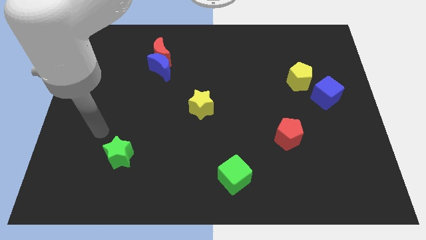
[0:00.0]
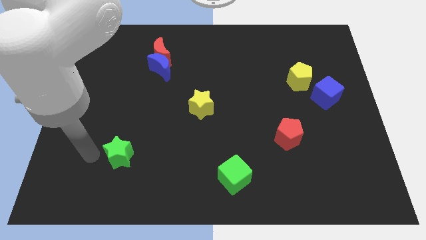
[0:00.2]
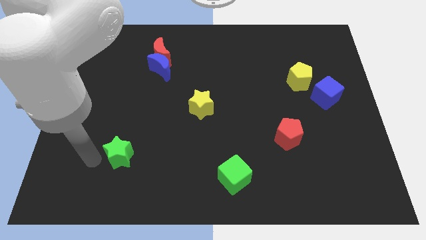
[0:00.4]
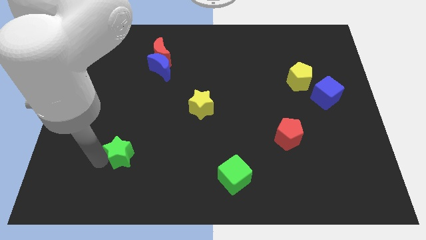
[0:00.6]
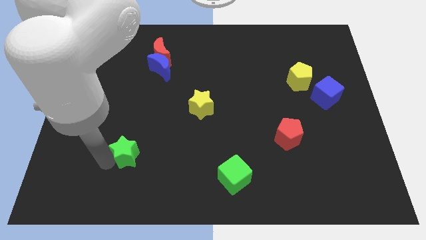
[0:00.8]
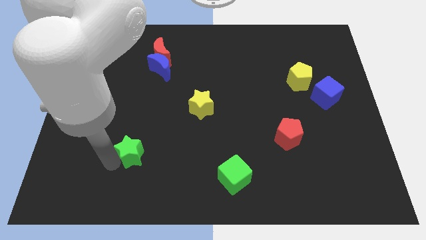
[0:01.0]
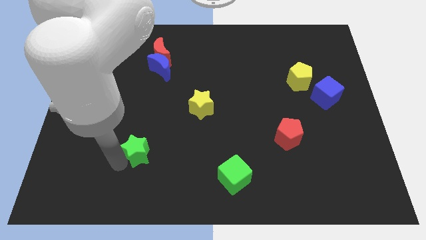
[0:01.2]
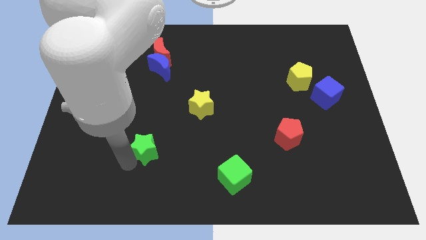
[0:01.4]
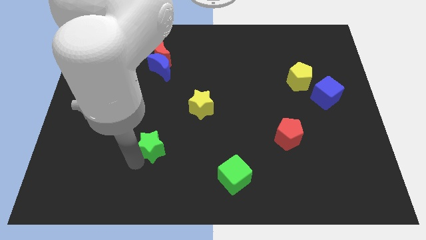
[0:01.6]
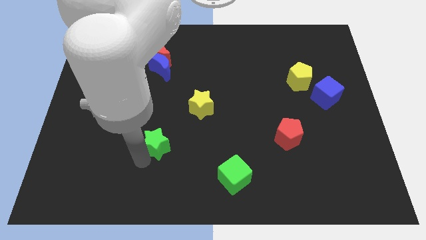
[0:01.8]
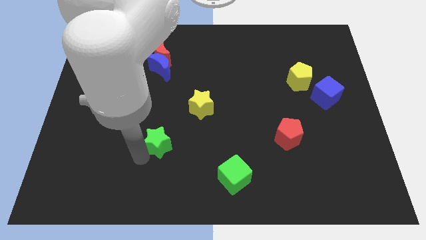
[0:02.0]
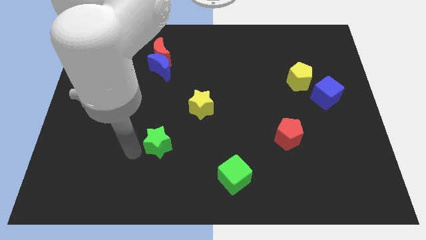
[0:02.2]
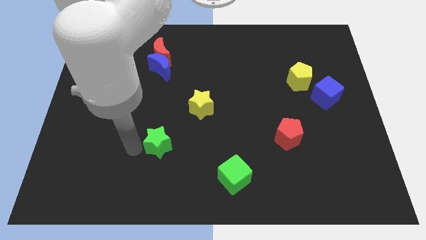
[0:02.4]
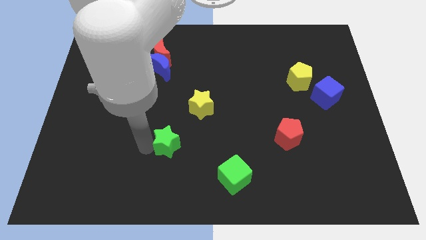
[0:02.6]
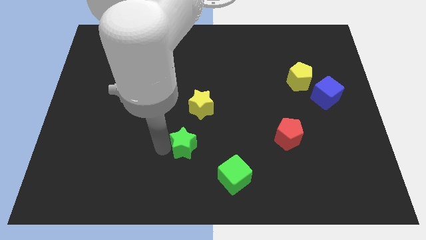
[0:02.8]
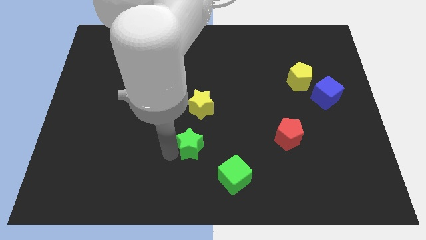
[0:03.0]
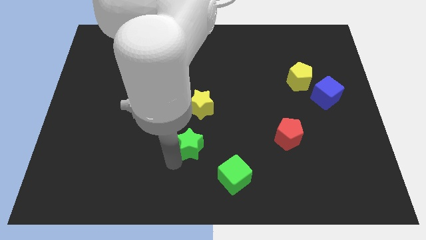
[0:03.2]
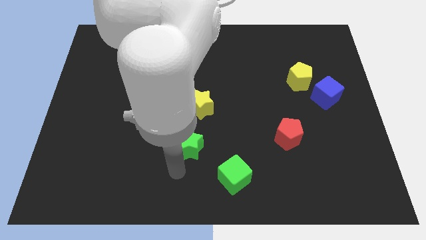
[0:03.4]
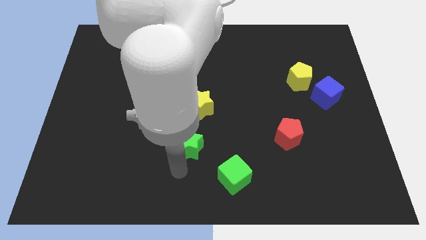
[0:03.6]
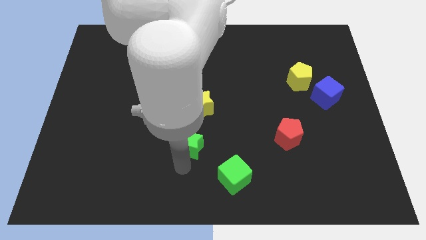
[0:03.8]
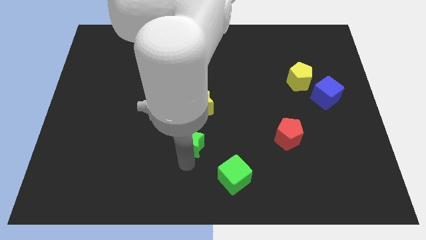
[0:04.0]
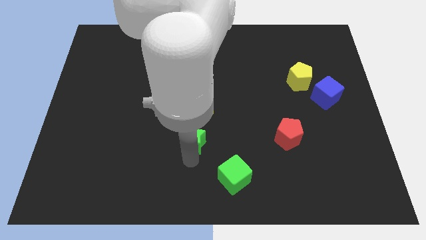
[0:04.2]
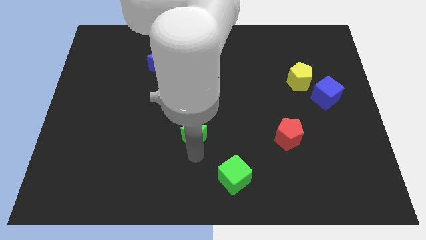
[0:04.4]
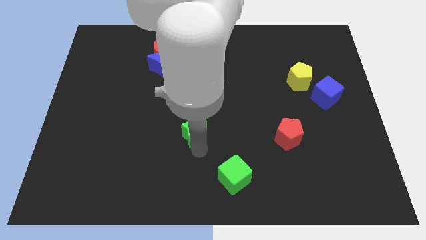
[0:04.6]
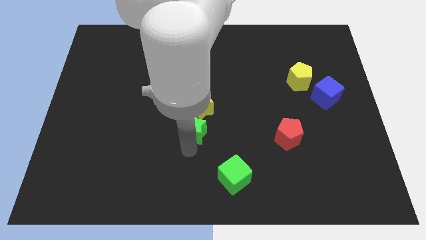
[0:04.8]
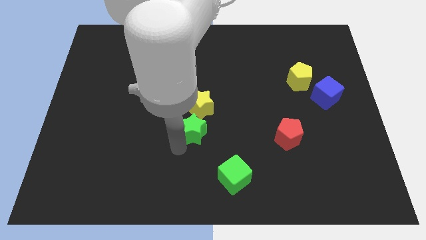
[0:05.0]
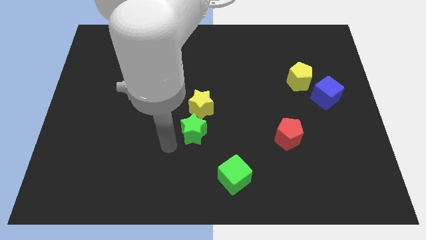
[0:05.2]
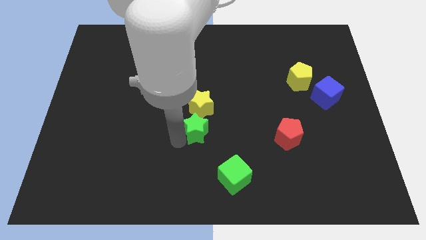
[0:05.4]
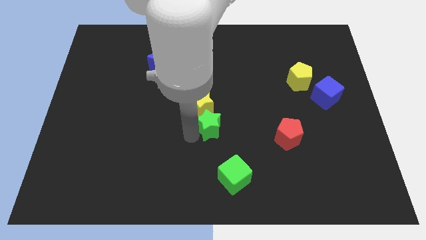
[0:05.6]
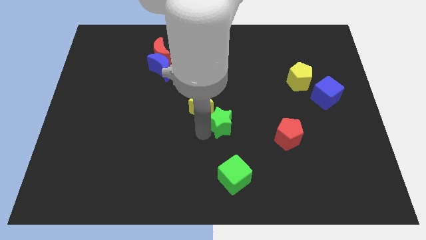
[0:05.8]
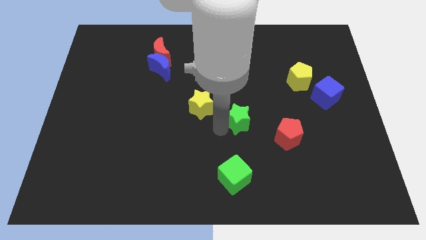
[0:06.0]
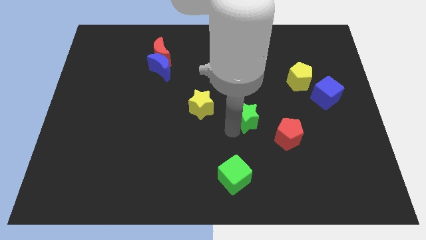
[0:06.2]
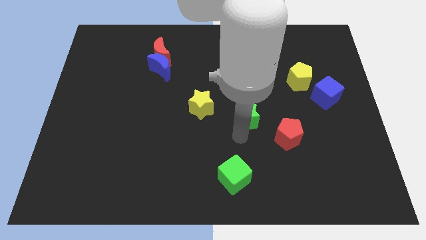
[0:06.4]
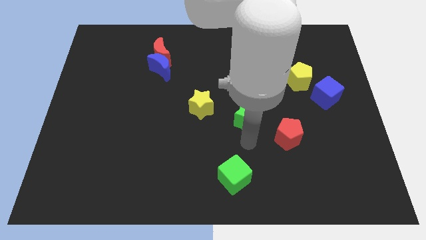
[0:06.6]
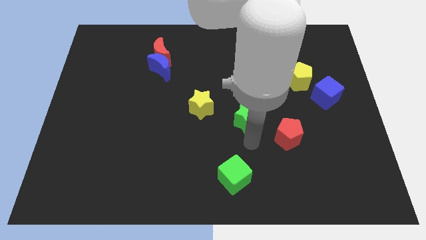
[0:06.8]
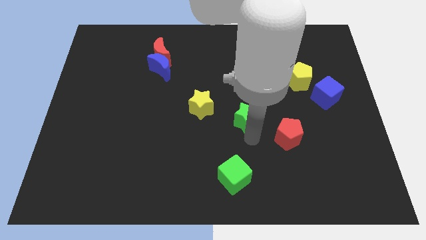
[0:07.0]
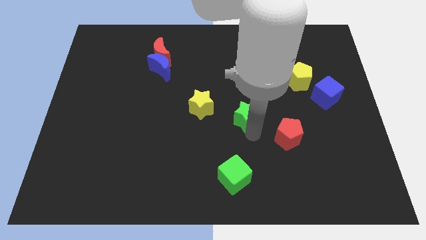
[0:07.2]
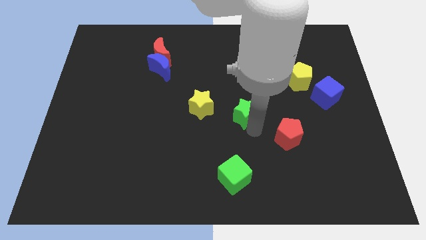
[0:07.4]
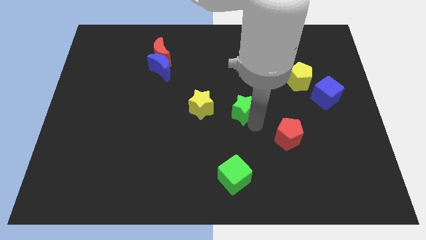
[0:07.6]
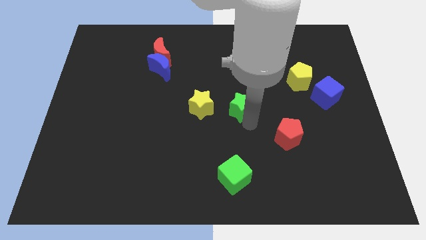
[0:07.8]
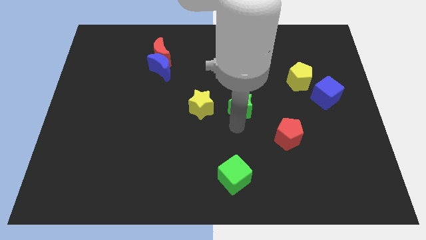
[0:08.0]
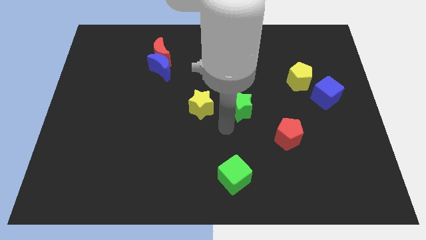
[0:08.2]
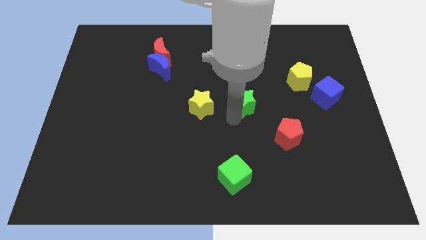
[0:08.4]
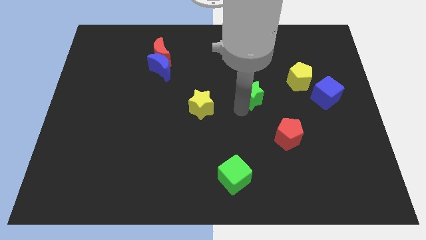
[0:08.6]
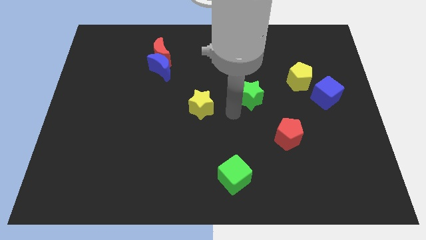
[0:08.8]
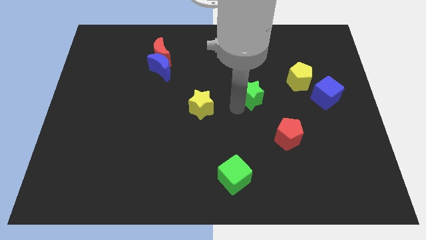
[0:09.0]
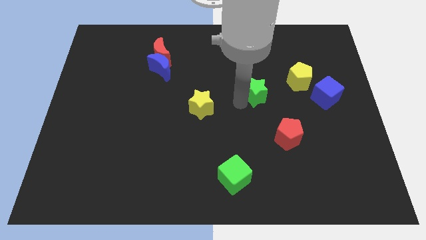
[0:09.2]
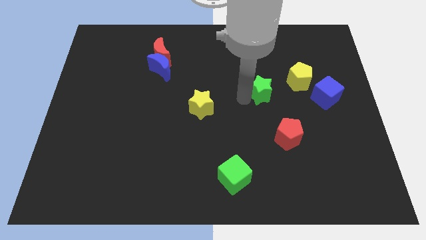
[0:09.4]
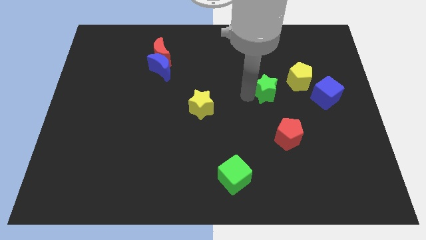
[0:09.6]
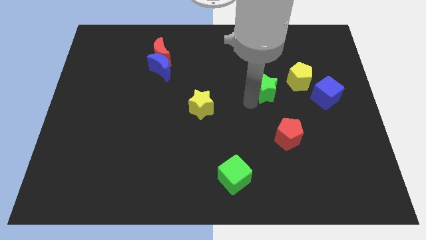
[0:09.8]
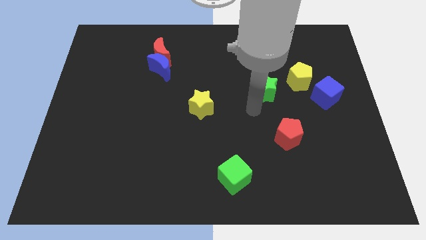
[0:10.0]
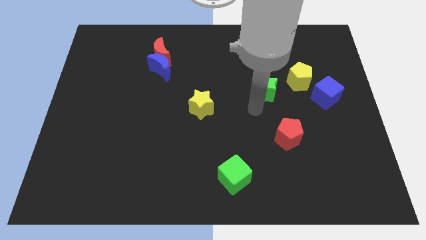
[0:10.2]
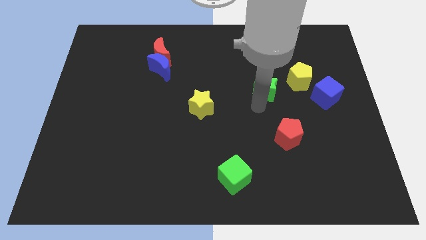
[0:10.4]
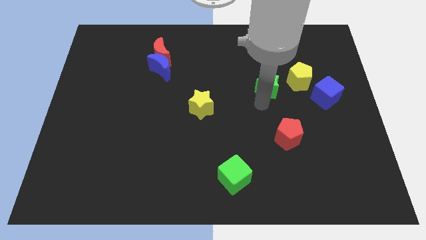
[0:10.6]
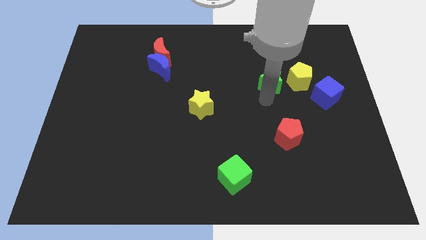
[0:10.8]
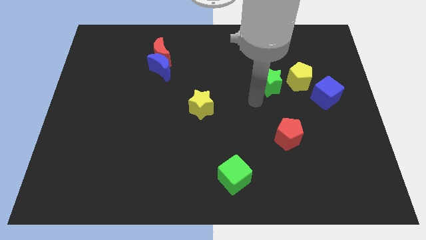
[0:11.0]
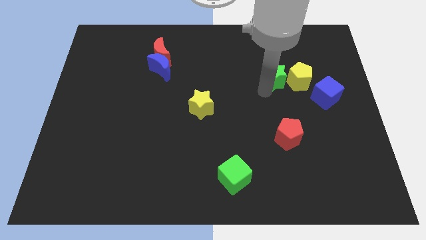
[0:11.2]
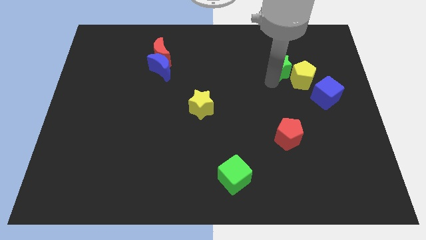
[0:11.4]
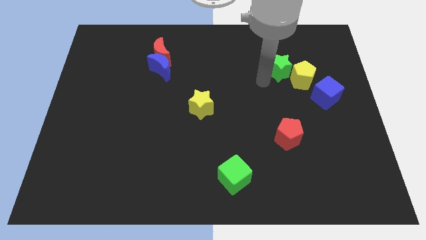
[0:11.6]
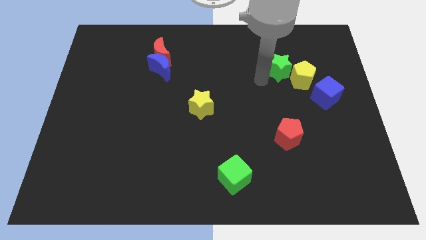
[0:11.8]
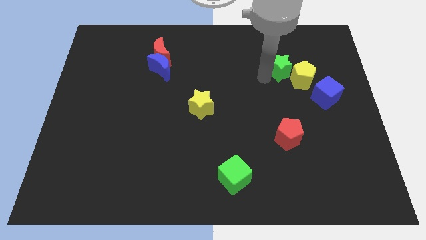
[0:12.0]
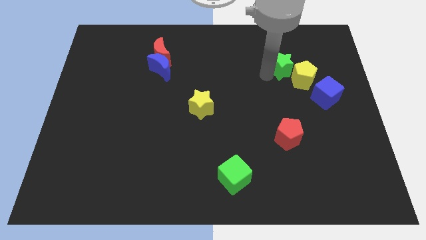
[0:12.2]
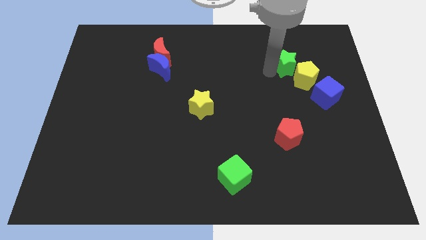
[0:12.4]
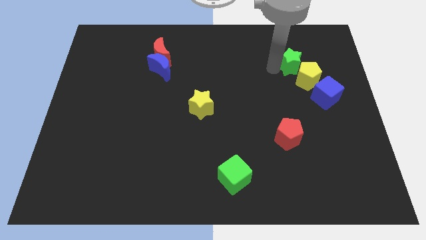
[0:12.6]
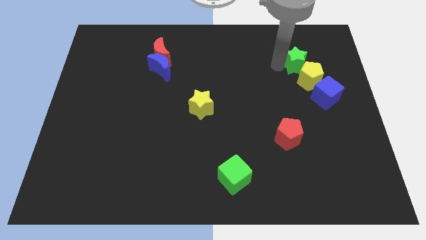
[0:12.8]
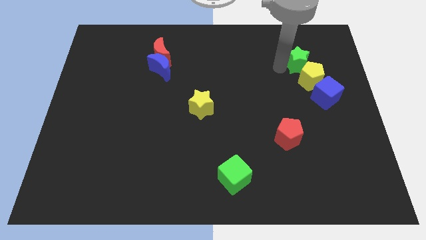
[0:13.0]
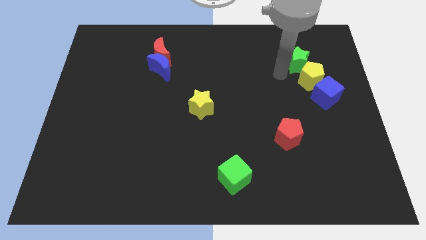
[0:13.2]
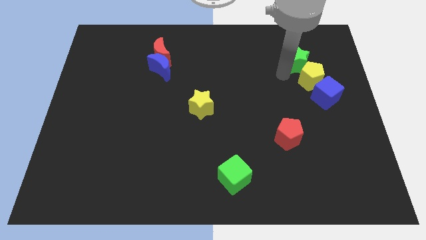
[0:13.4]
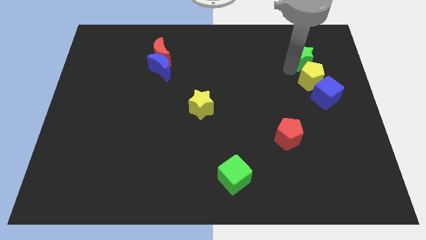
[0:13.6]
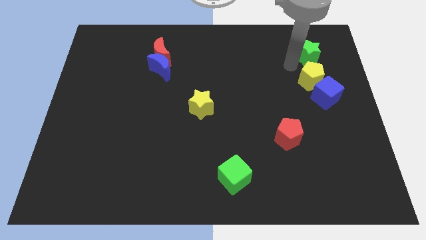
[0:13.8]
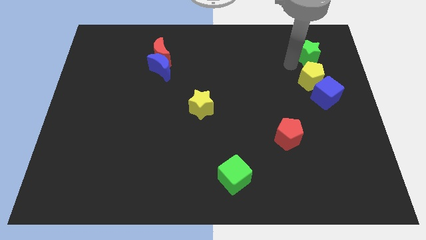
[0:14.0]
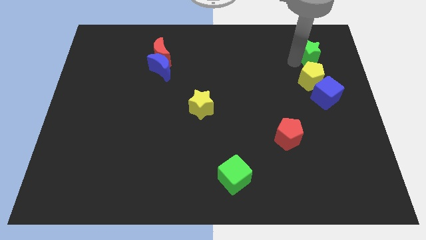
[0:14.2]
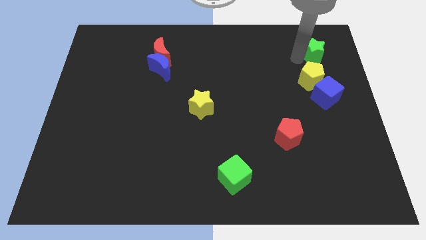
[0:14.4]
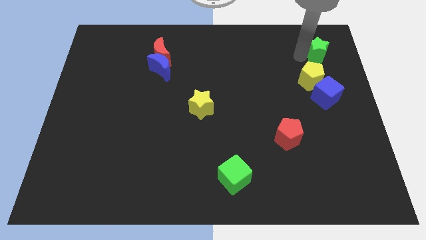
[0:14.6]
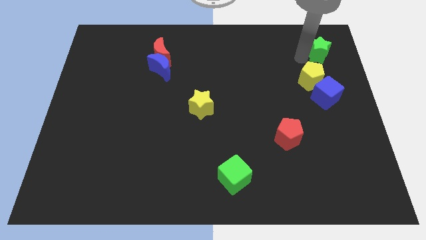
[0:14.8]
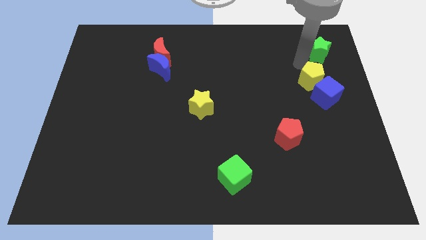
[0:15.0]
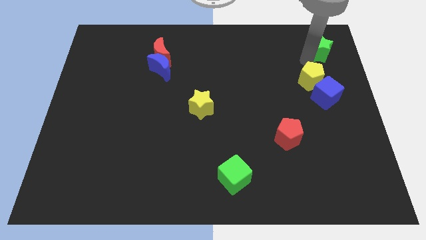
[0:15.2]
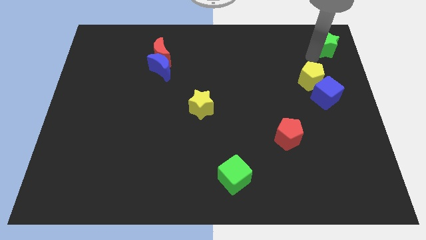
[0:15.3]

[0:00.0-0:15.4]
push the green star to the top right corner
